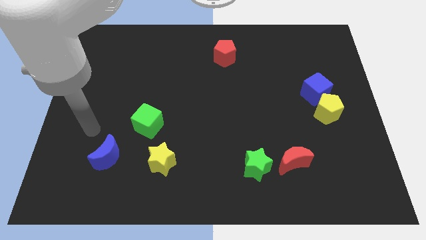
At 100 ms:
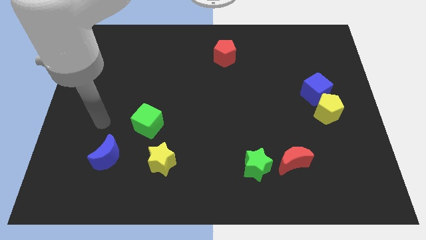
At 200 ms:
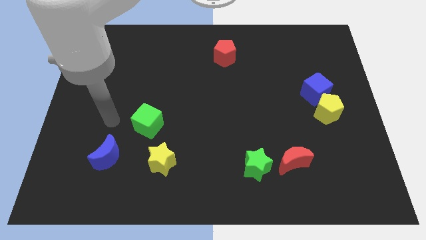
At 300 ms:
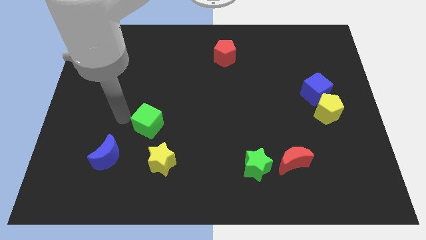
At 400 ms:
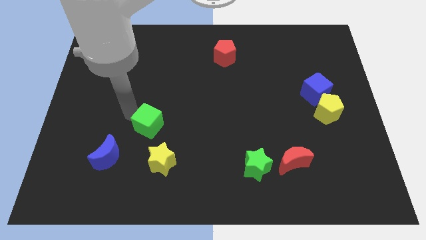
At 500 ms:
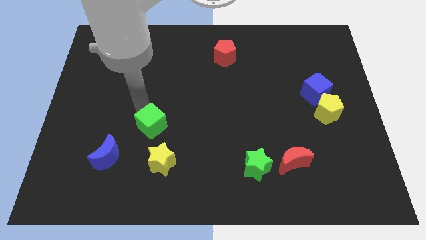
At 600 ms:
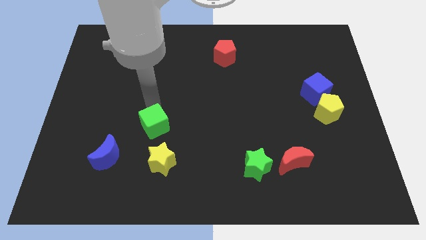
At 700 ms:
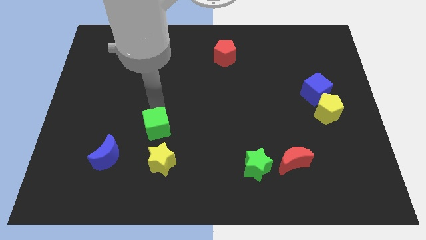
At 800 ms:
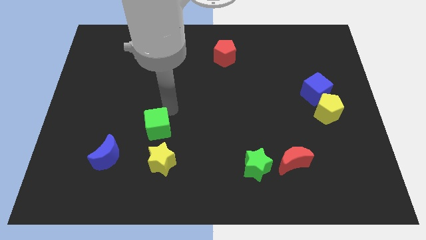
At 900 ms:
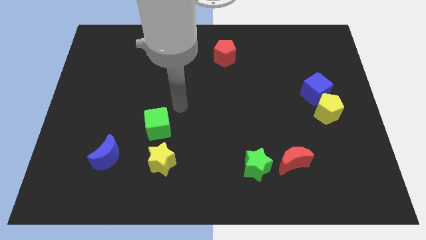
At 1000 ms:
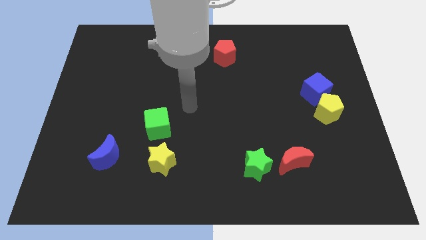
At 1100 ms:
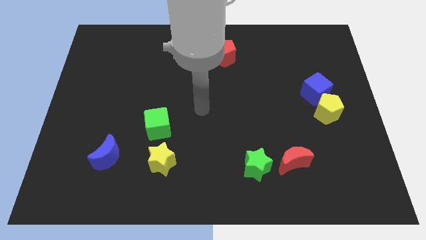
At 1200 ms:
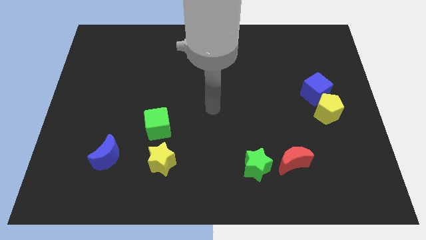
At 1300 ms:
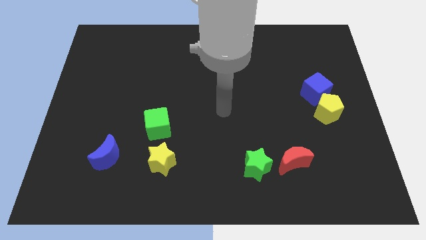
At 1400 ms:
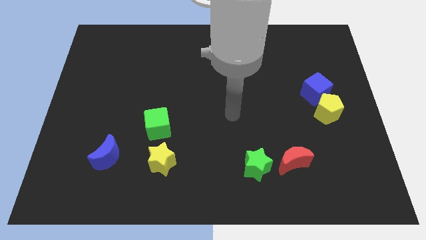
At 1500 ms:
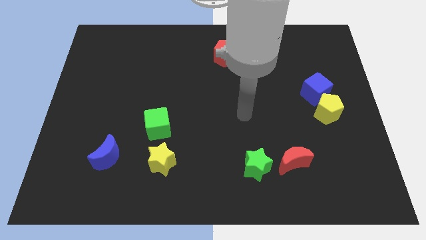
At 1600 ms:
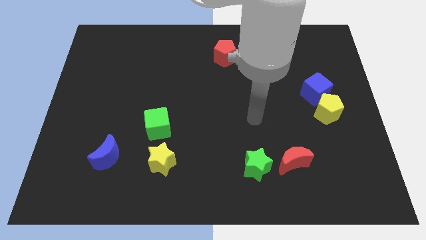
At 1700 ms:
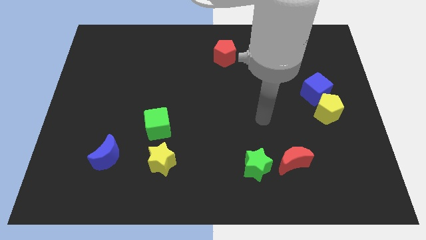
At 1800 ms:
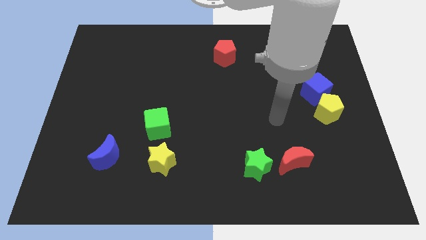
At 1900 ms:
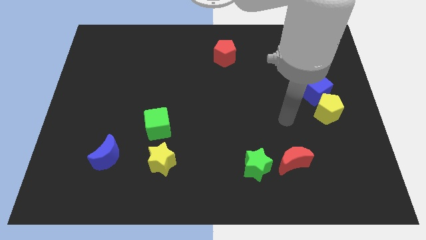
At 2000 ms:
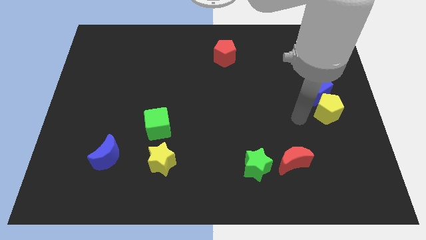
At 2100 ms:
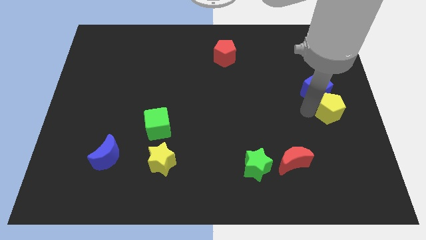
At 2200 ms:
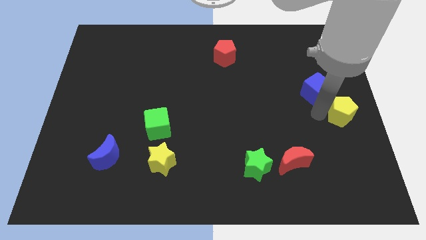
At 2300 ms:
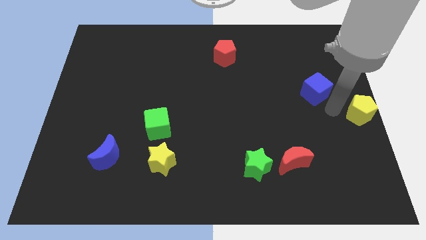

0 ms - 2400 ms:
move the blue cube away from the yellow pentagon

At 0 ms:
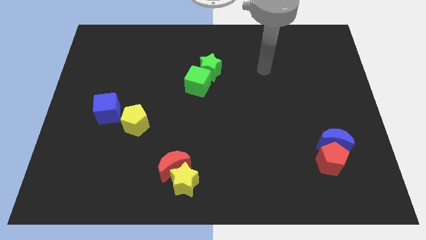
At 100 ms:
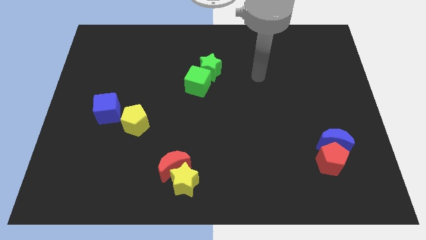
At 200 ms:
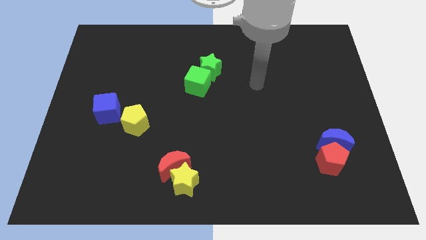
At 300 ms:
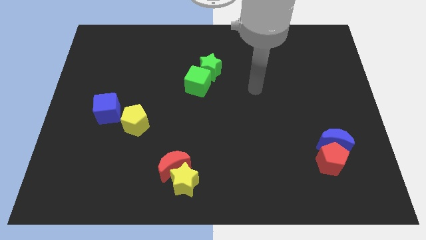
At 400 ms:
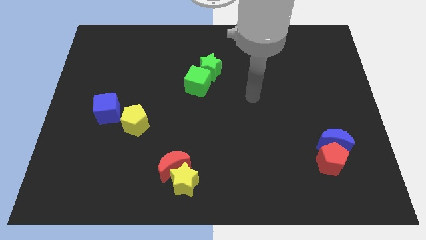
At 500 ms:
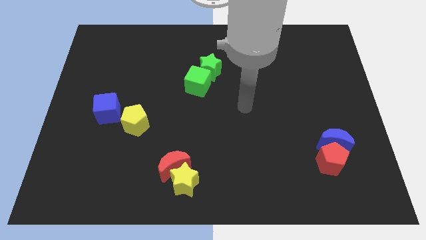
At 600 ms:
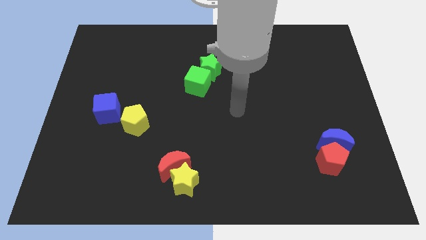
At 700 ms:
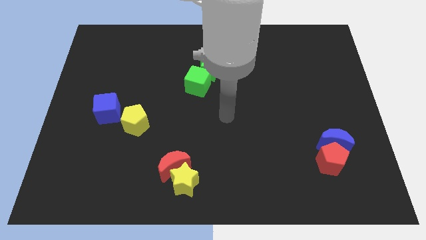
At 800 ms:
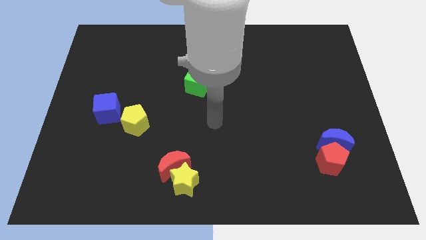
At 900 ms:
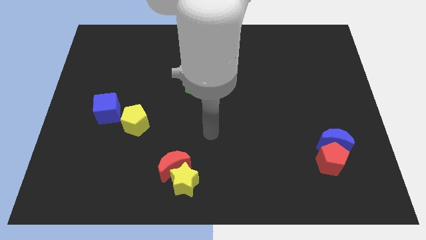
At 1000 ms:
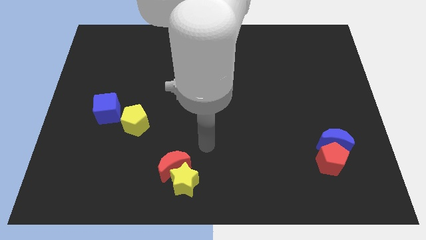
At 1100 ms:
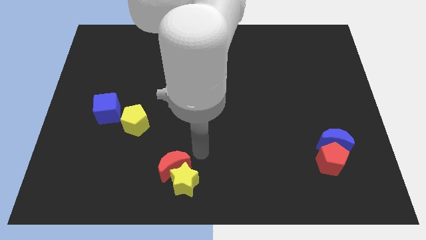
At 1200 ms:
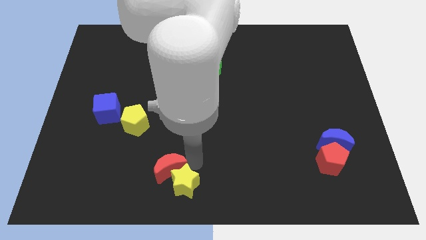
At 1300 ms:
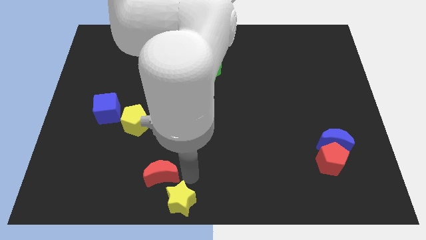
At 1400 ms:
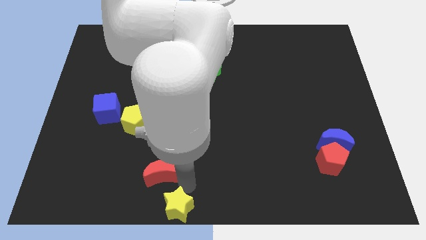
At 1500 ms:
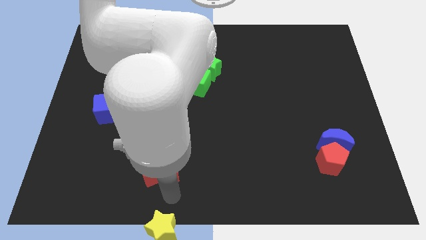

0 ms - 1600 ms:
separate the red moon from the yellow star

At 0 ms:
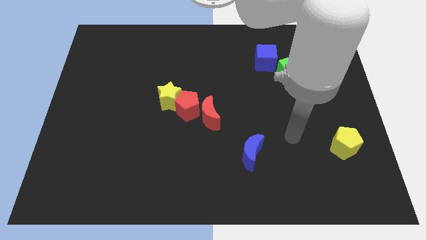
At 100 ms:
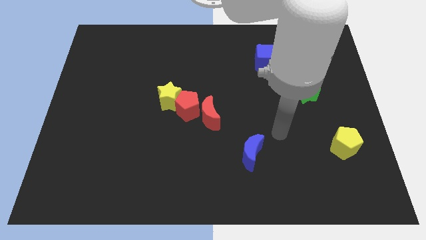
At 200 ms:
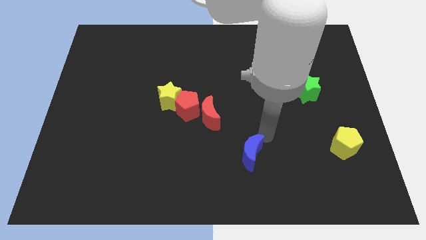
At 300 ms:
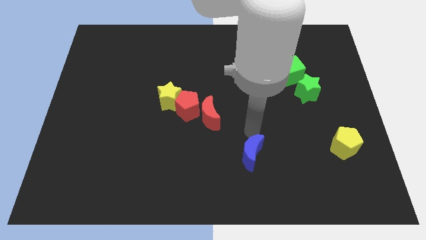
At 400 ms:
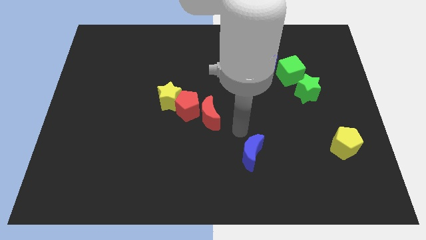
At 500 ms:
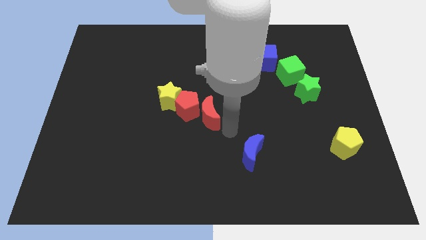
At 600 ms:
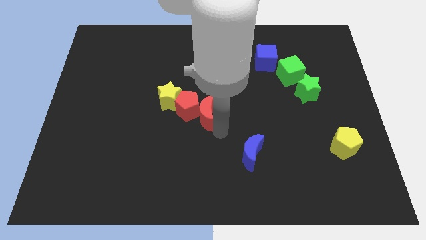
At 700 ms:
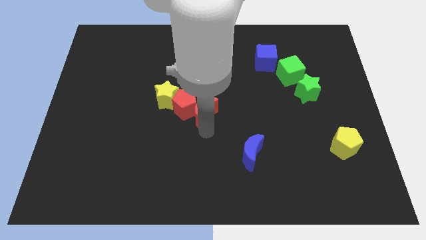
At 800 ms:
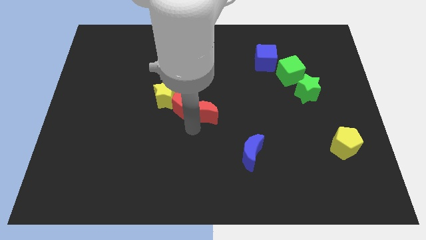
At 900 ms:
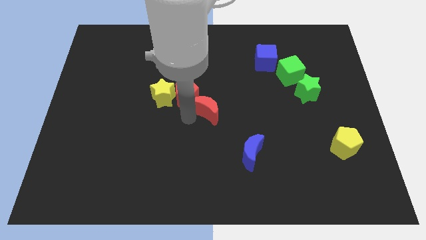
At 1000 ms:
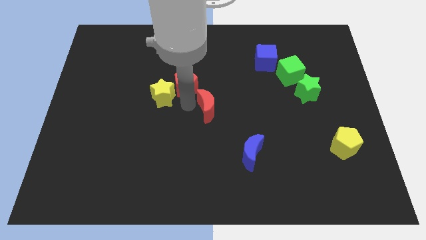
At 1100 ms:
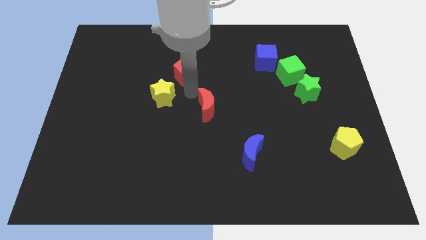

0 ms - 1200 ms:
separate the red moon from the red pentagon

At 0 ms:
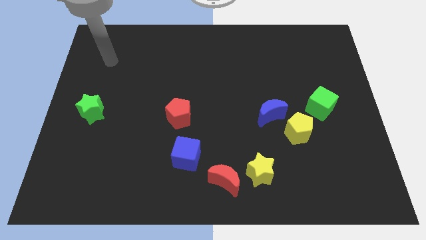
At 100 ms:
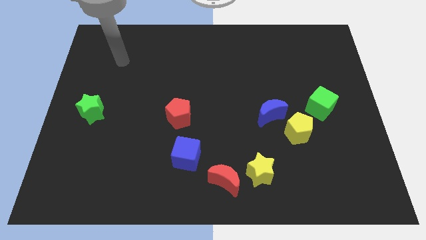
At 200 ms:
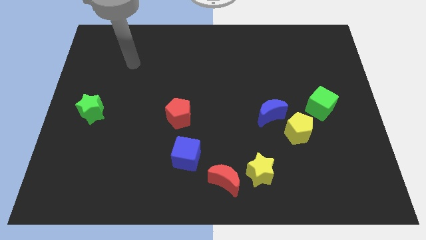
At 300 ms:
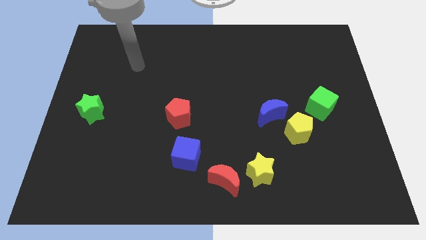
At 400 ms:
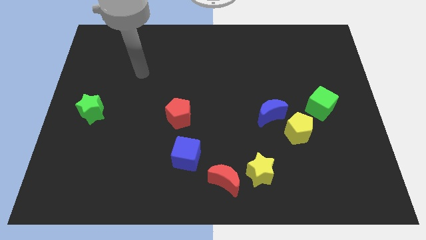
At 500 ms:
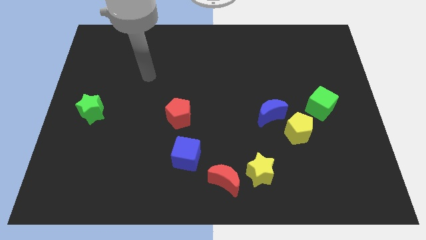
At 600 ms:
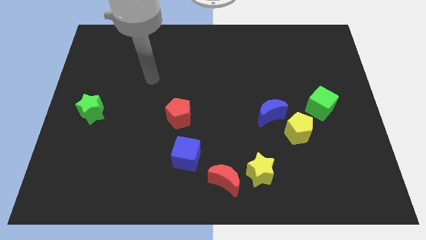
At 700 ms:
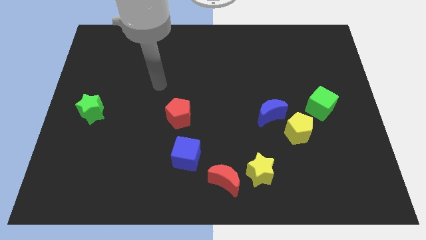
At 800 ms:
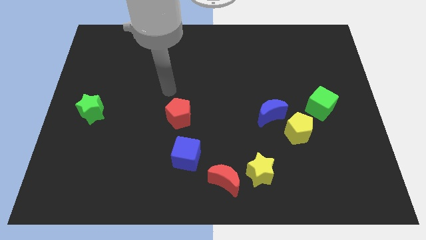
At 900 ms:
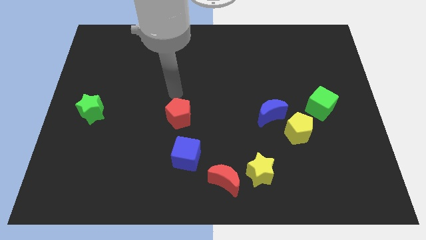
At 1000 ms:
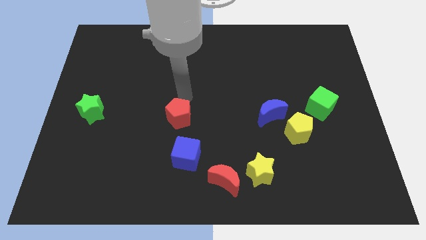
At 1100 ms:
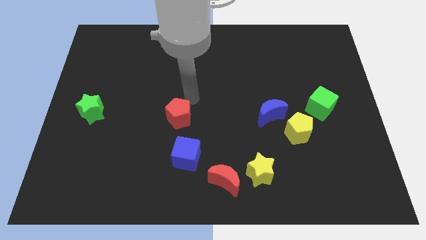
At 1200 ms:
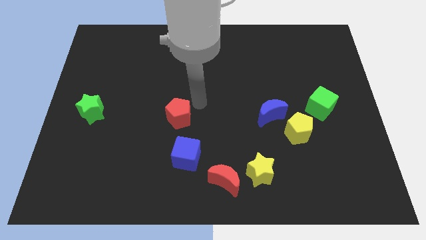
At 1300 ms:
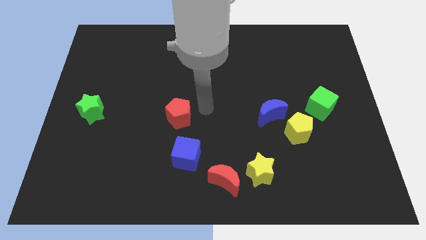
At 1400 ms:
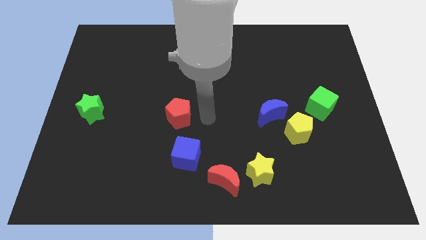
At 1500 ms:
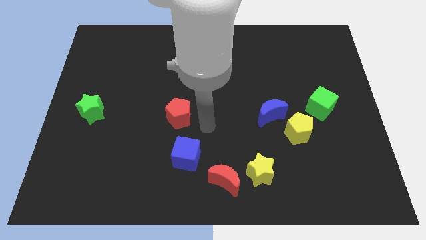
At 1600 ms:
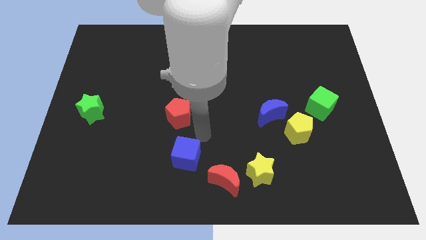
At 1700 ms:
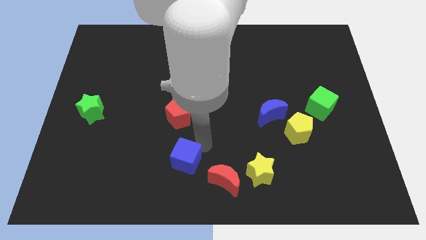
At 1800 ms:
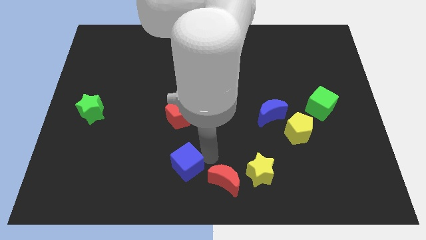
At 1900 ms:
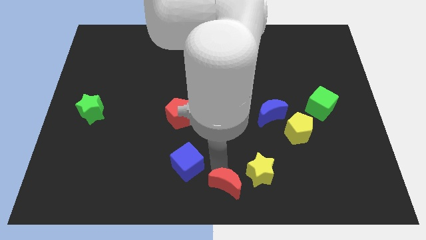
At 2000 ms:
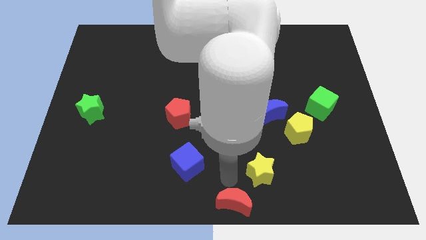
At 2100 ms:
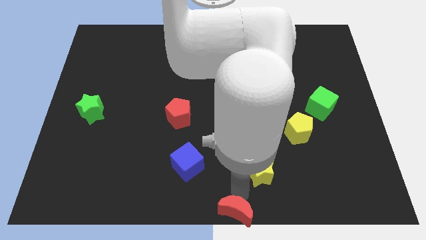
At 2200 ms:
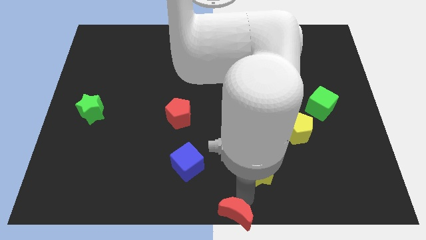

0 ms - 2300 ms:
separate the yellow star from the red moon

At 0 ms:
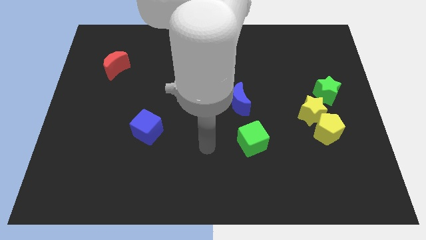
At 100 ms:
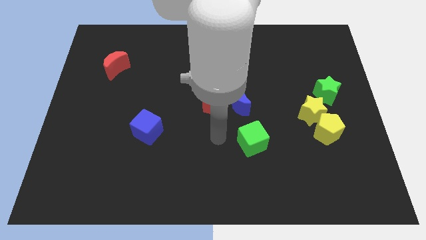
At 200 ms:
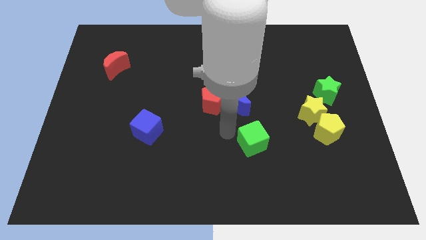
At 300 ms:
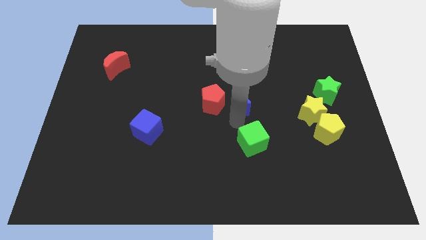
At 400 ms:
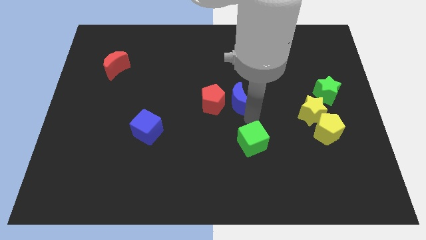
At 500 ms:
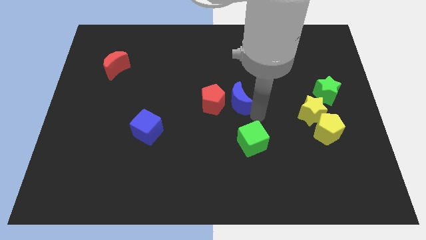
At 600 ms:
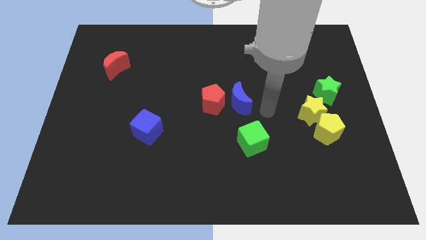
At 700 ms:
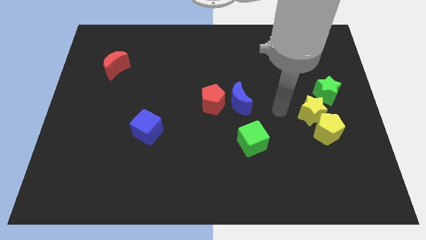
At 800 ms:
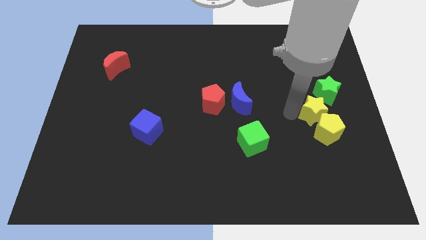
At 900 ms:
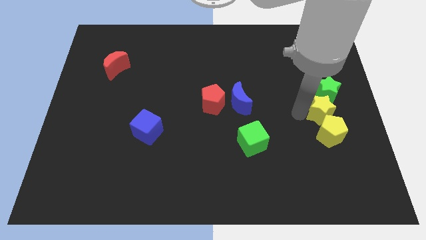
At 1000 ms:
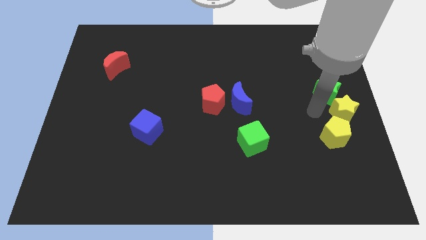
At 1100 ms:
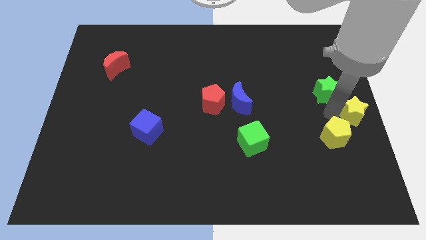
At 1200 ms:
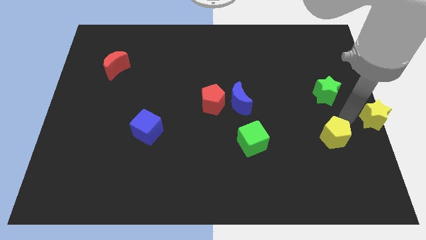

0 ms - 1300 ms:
separate the yellow pentagon from the yellow star

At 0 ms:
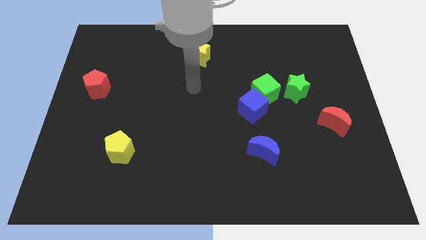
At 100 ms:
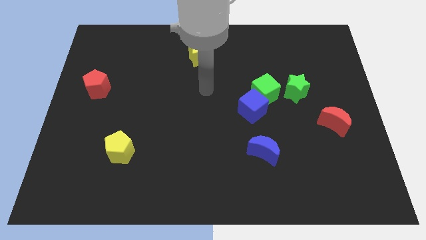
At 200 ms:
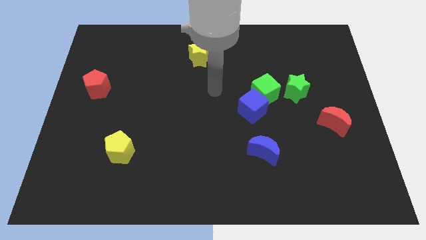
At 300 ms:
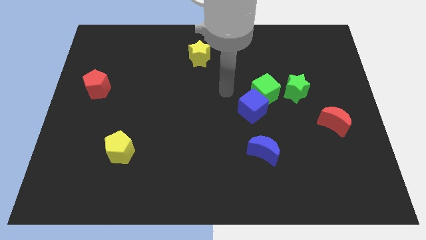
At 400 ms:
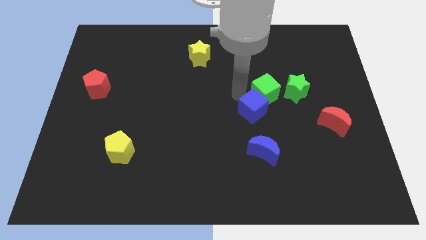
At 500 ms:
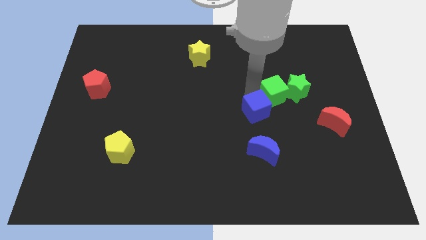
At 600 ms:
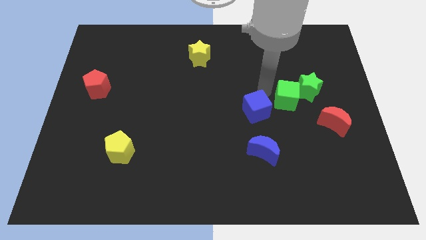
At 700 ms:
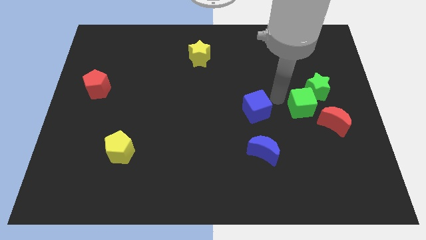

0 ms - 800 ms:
move the blue cube away from the green cube
